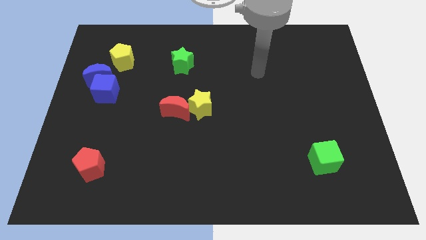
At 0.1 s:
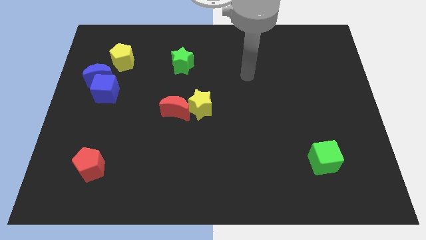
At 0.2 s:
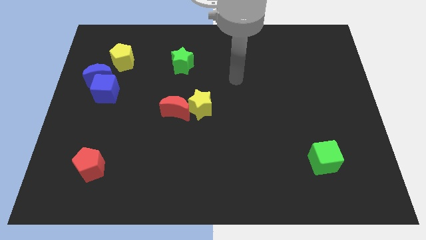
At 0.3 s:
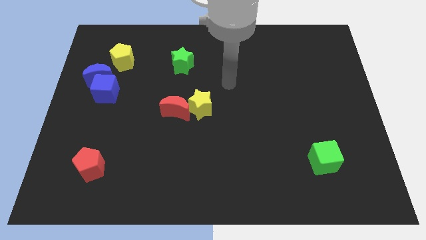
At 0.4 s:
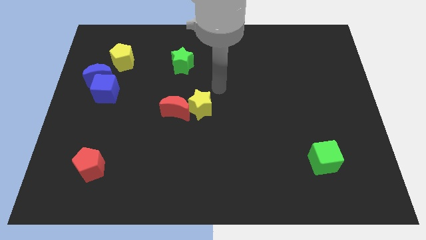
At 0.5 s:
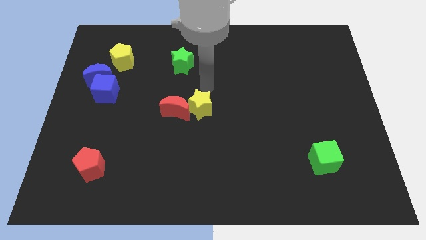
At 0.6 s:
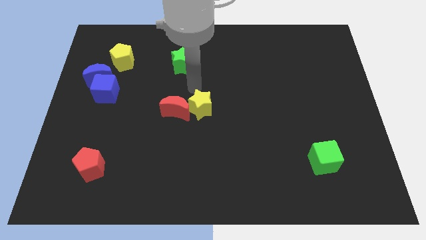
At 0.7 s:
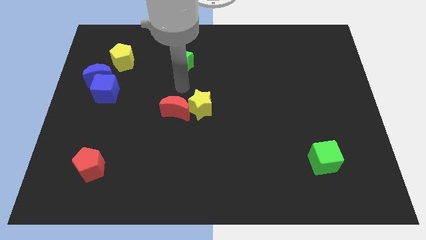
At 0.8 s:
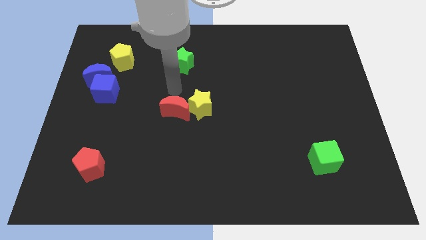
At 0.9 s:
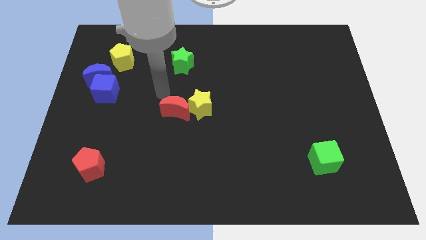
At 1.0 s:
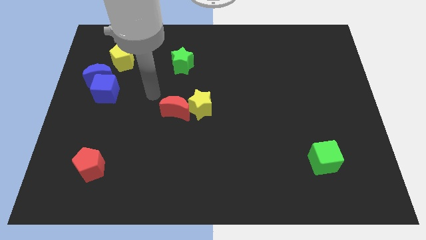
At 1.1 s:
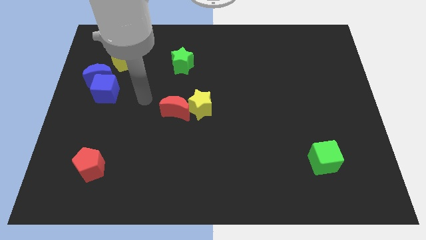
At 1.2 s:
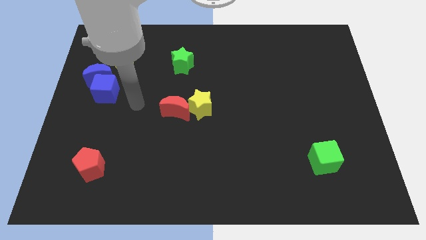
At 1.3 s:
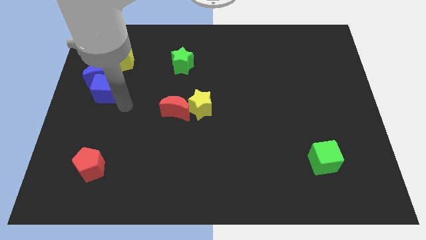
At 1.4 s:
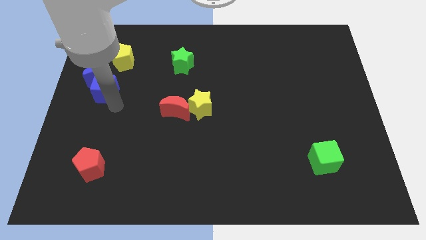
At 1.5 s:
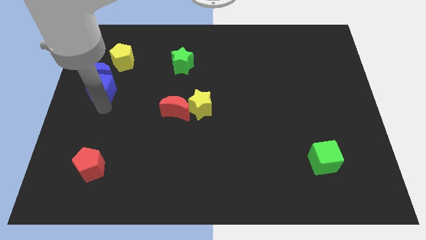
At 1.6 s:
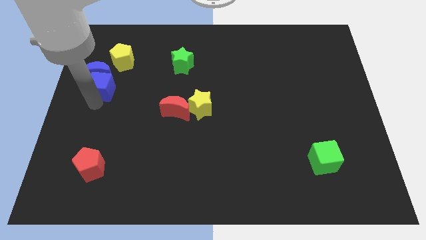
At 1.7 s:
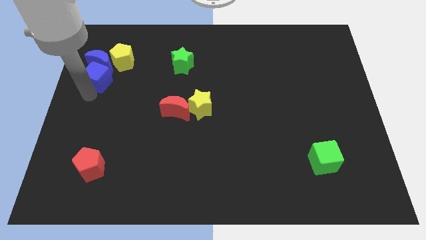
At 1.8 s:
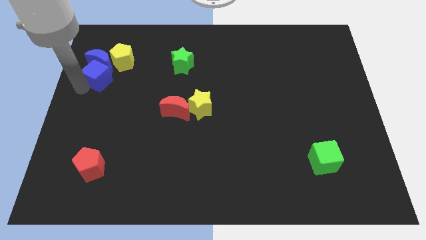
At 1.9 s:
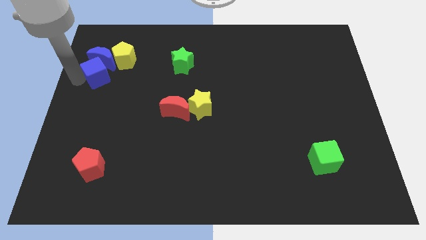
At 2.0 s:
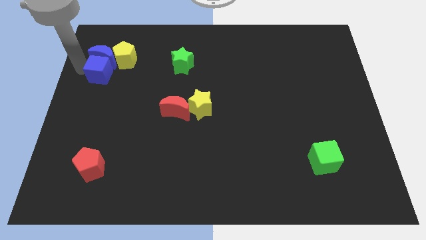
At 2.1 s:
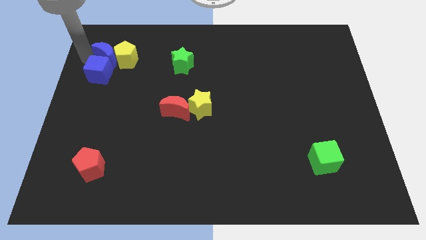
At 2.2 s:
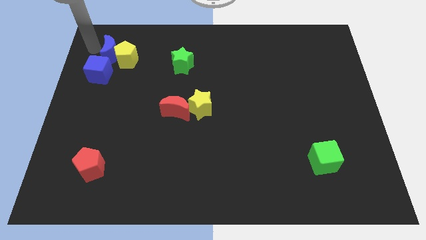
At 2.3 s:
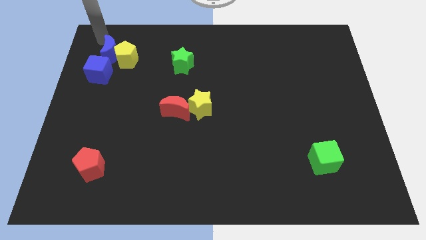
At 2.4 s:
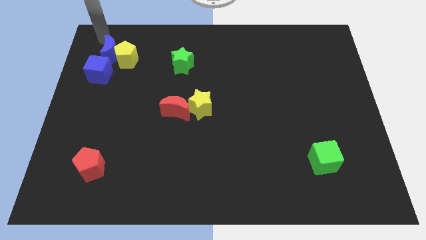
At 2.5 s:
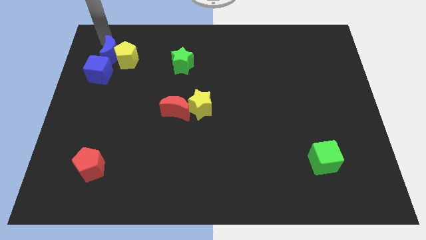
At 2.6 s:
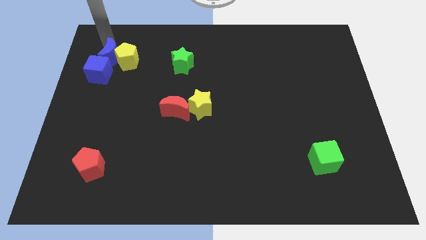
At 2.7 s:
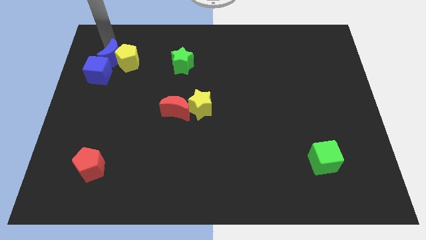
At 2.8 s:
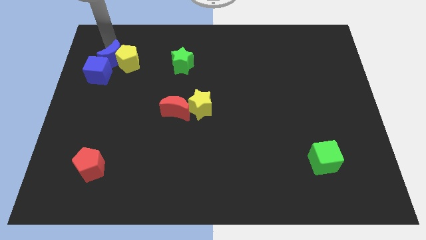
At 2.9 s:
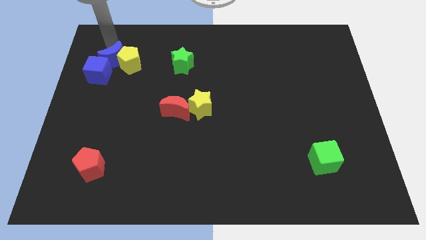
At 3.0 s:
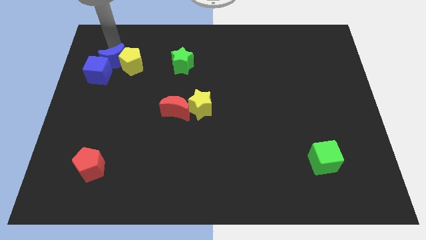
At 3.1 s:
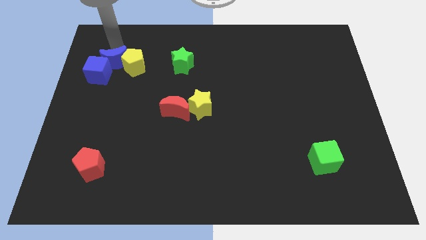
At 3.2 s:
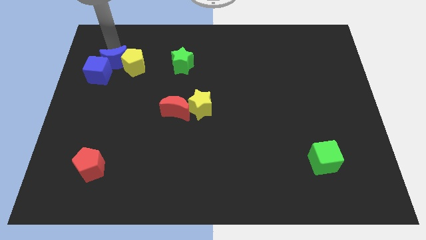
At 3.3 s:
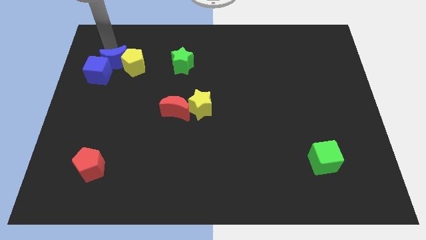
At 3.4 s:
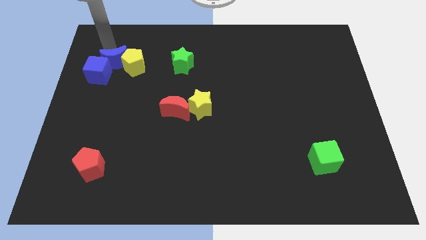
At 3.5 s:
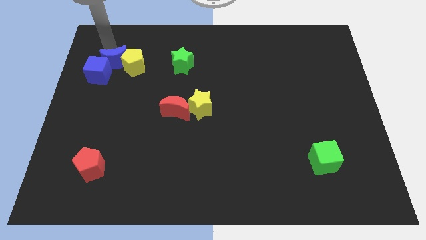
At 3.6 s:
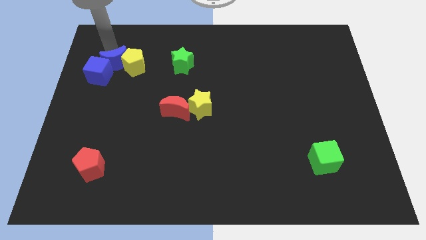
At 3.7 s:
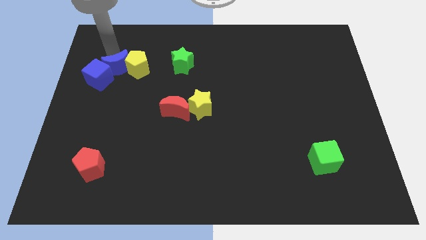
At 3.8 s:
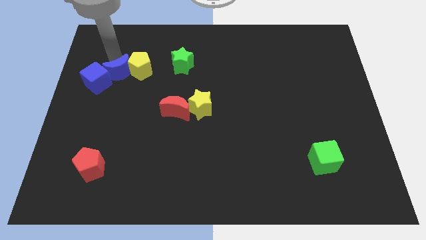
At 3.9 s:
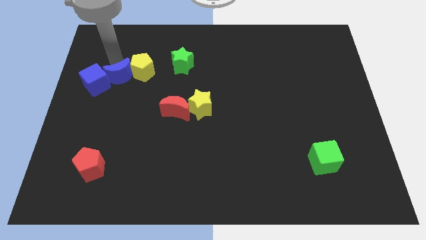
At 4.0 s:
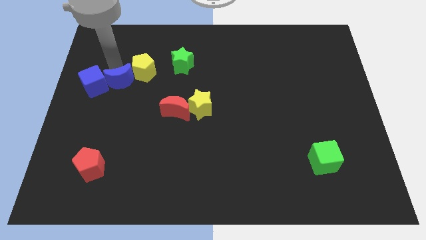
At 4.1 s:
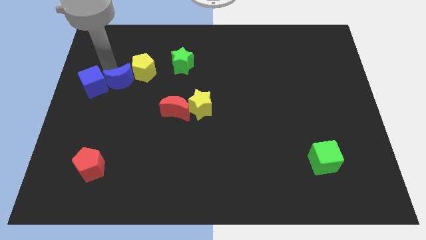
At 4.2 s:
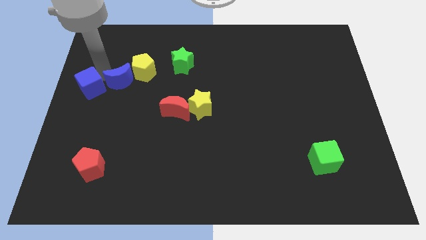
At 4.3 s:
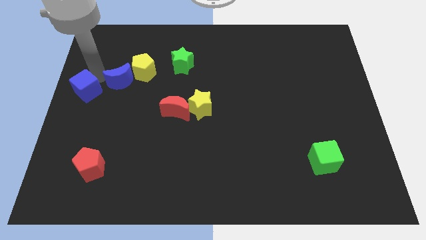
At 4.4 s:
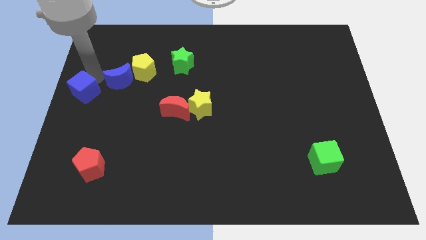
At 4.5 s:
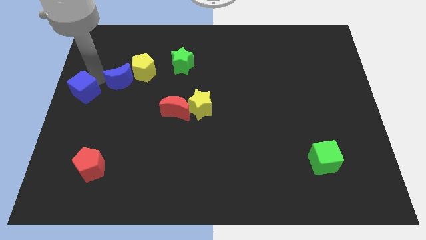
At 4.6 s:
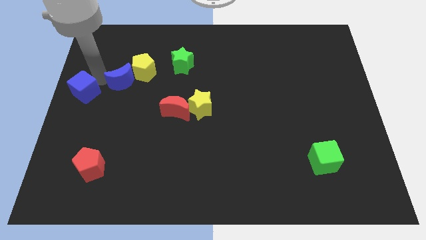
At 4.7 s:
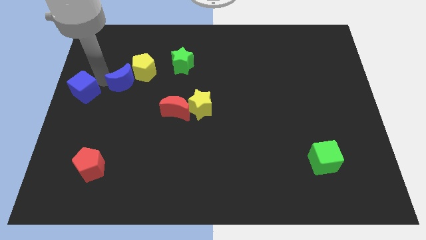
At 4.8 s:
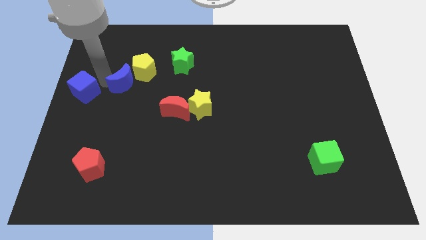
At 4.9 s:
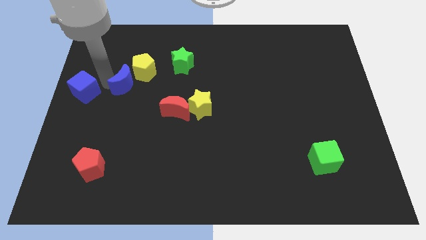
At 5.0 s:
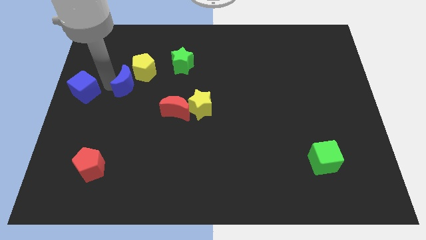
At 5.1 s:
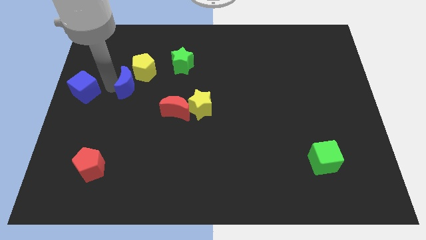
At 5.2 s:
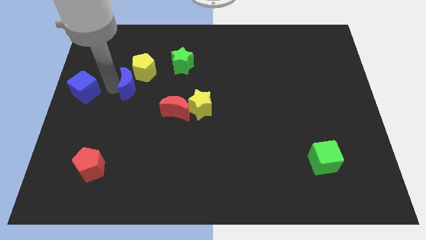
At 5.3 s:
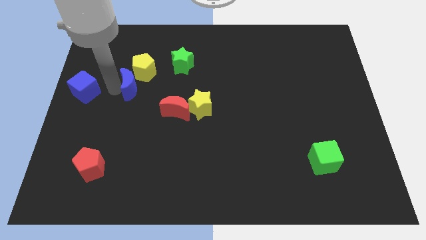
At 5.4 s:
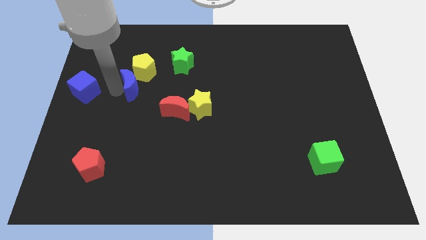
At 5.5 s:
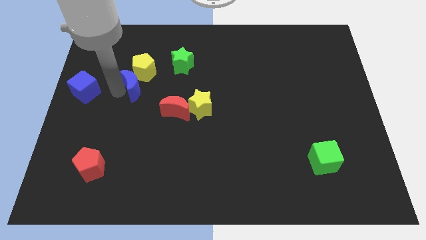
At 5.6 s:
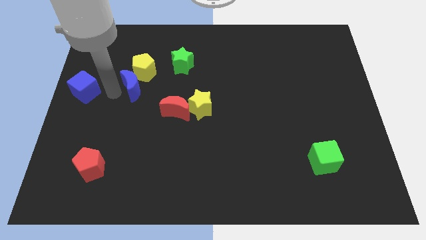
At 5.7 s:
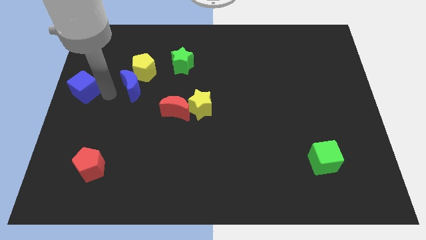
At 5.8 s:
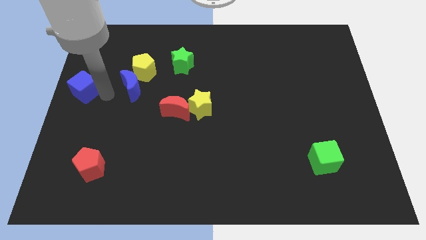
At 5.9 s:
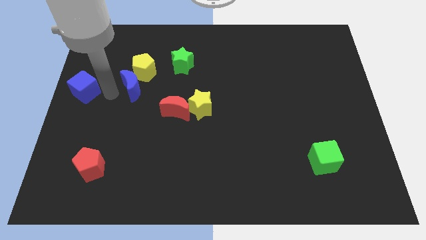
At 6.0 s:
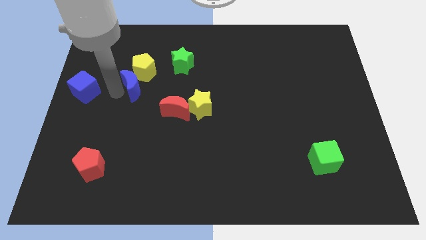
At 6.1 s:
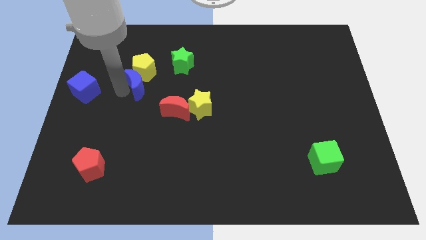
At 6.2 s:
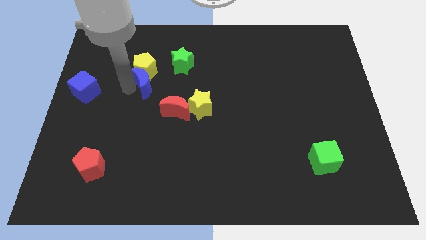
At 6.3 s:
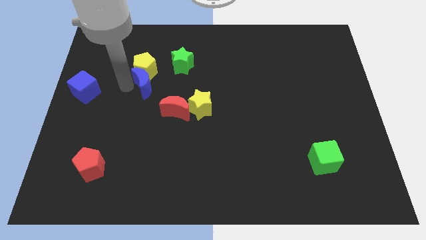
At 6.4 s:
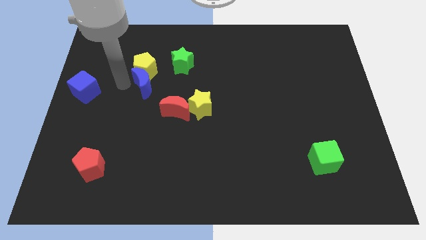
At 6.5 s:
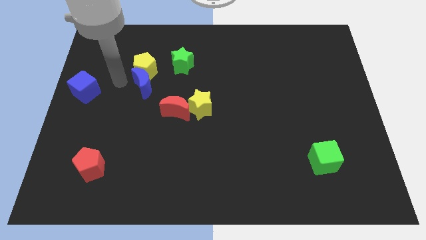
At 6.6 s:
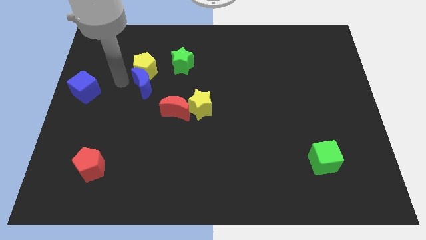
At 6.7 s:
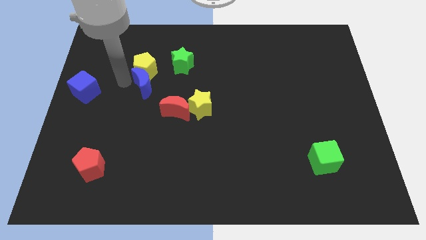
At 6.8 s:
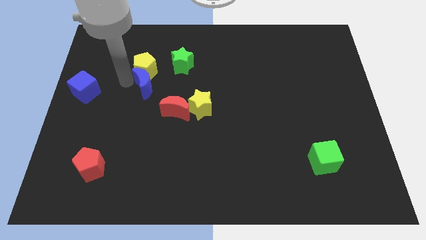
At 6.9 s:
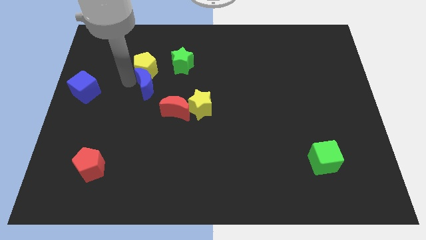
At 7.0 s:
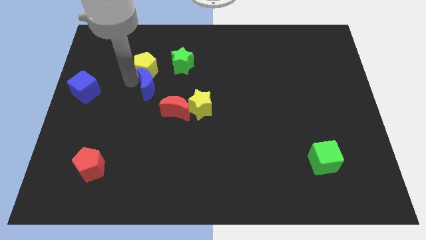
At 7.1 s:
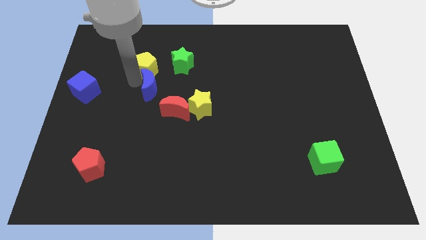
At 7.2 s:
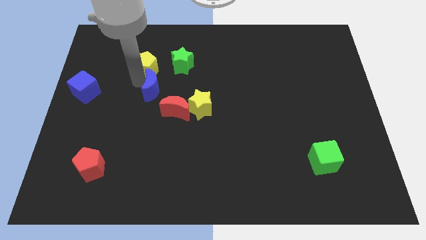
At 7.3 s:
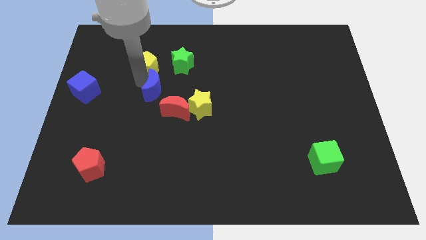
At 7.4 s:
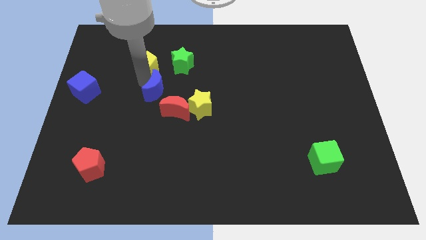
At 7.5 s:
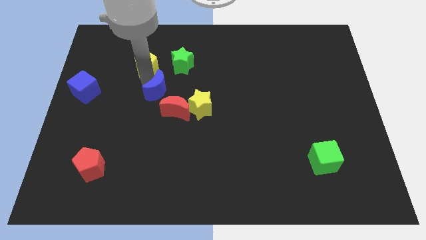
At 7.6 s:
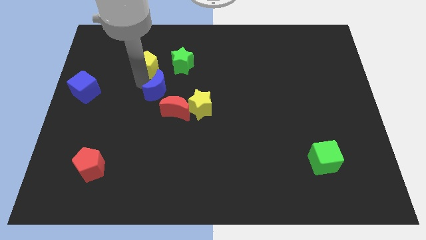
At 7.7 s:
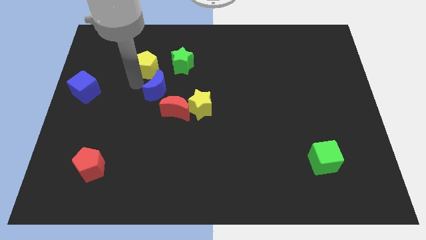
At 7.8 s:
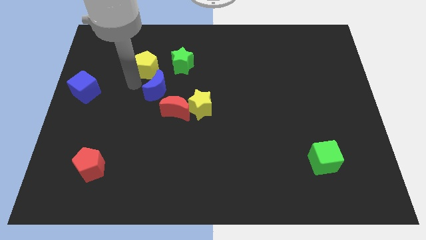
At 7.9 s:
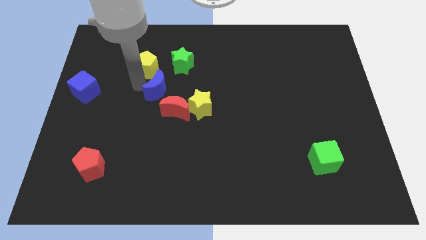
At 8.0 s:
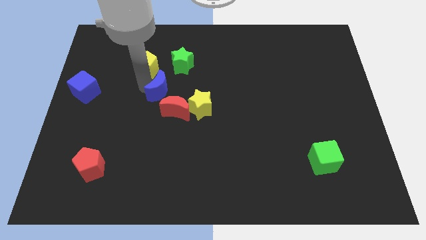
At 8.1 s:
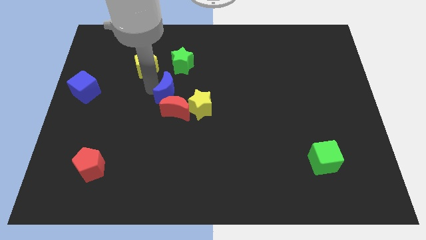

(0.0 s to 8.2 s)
put the blue moon to the bottom side of the green star
